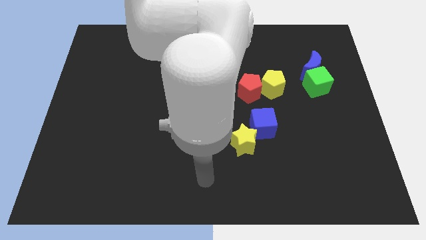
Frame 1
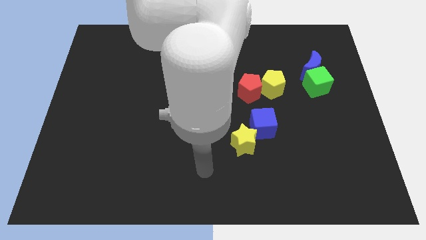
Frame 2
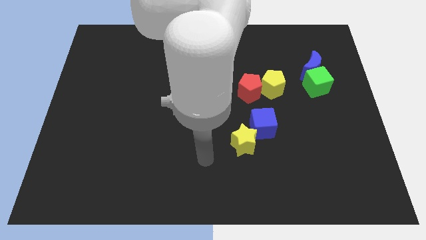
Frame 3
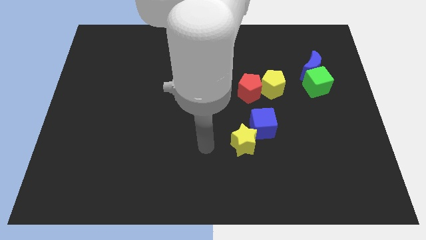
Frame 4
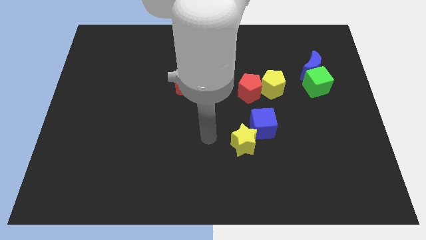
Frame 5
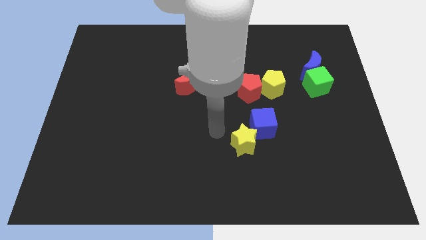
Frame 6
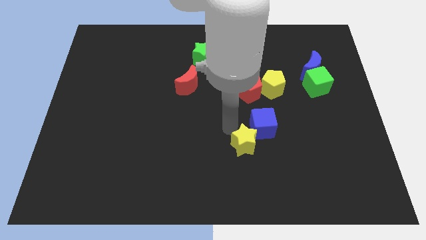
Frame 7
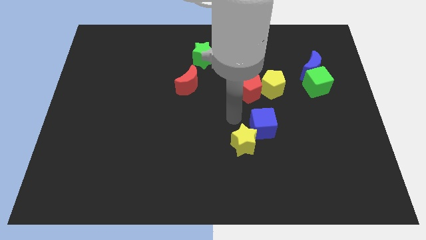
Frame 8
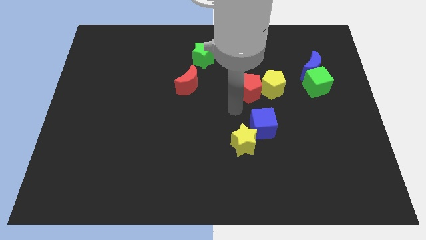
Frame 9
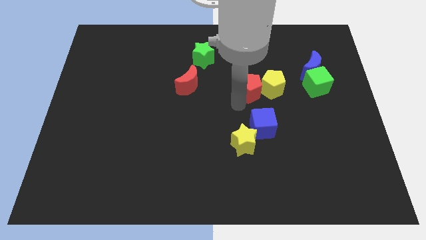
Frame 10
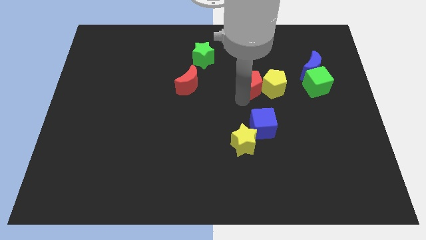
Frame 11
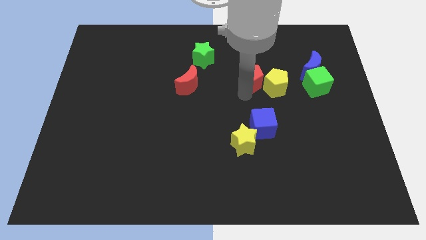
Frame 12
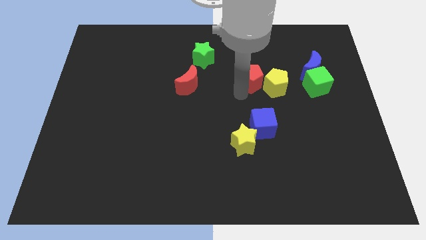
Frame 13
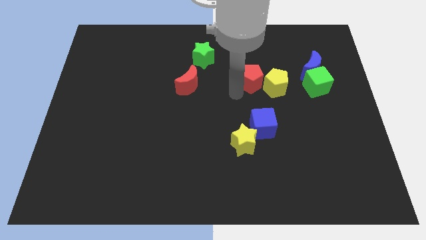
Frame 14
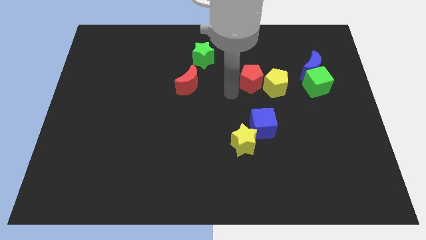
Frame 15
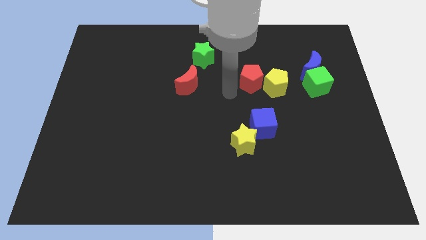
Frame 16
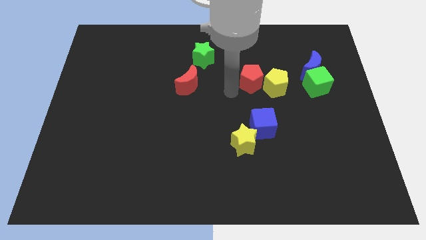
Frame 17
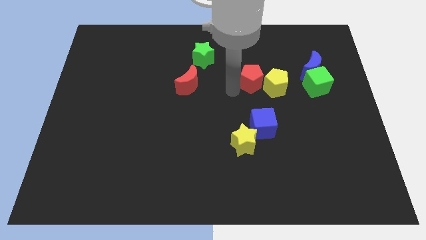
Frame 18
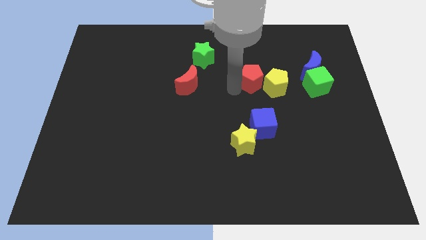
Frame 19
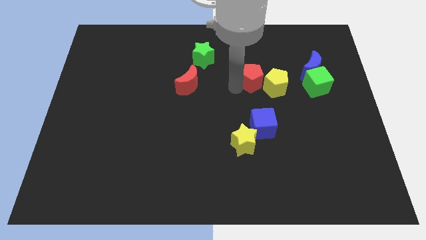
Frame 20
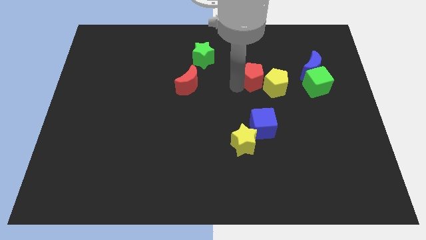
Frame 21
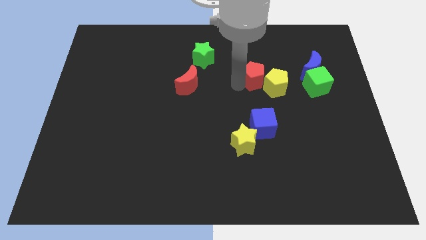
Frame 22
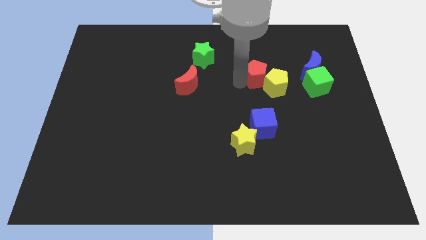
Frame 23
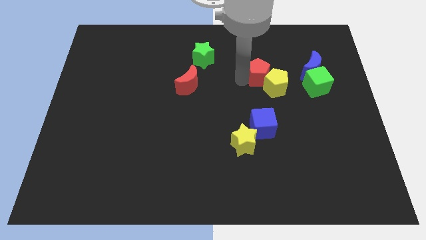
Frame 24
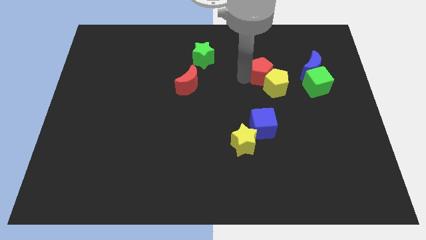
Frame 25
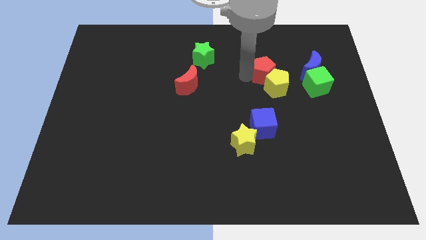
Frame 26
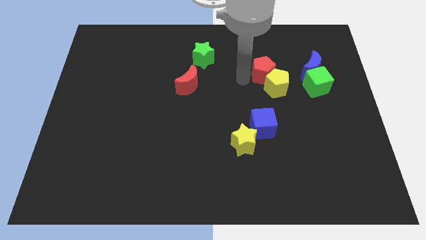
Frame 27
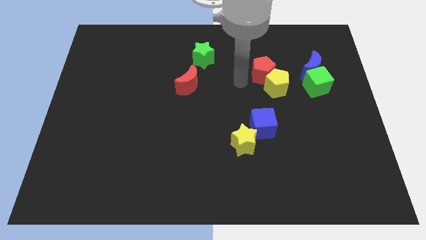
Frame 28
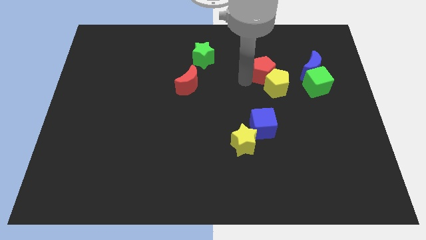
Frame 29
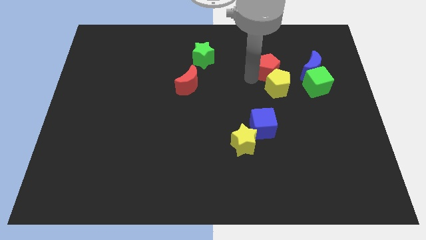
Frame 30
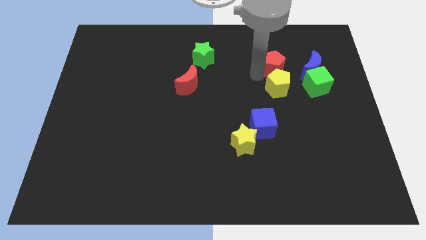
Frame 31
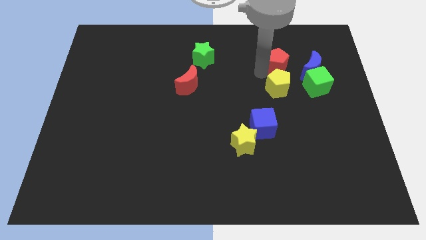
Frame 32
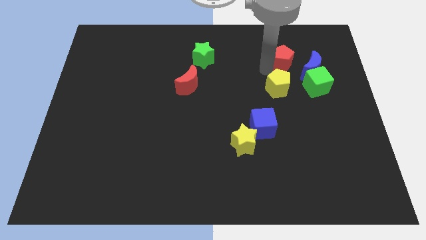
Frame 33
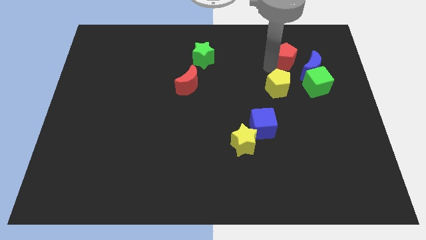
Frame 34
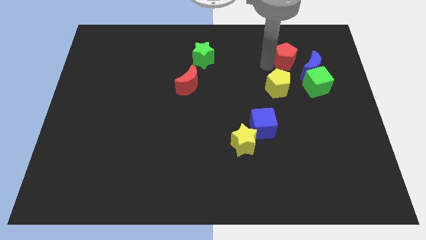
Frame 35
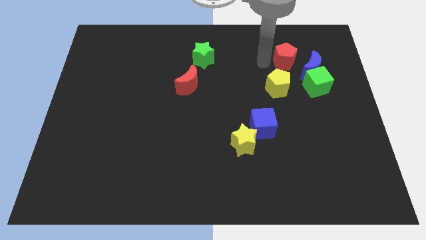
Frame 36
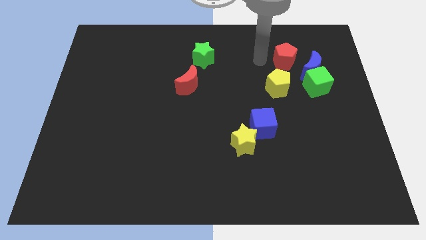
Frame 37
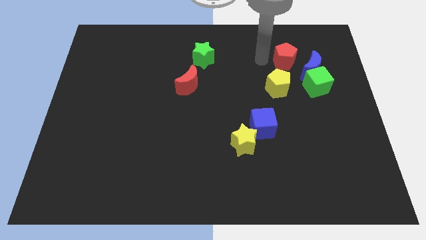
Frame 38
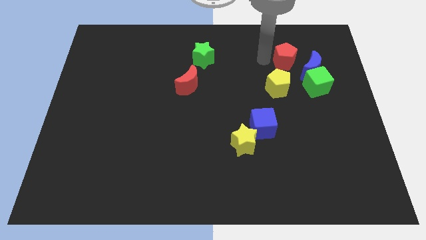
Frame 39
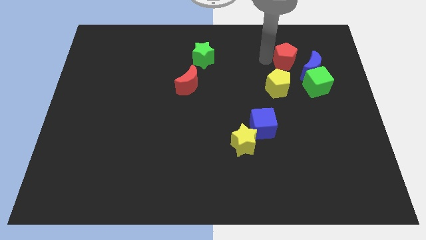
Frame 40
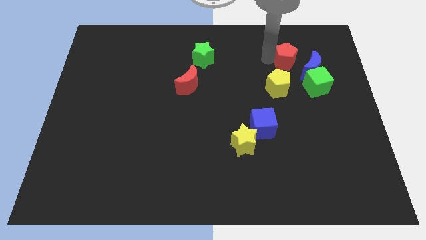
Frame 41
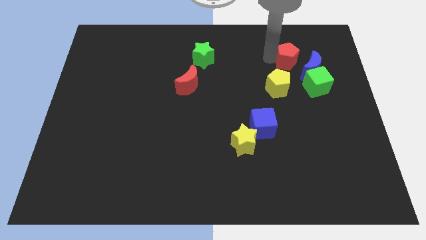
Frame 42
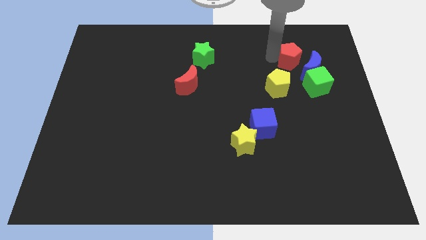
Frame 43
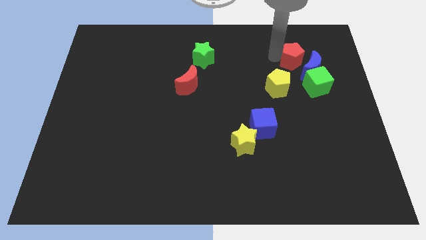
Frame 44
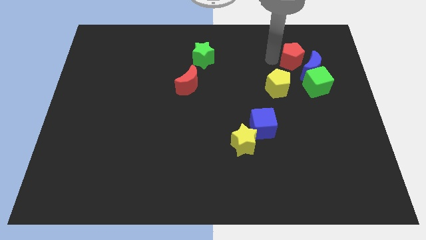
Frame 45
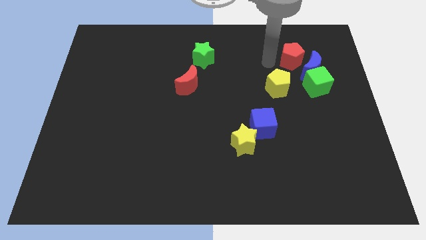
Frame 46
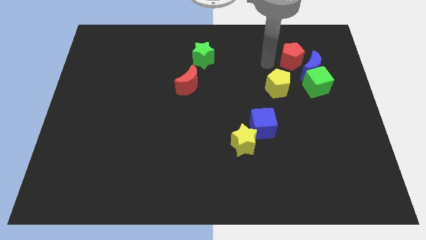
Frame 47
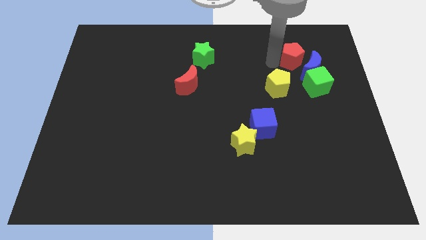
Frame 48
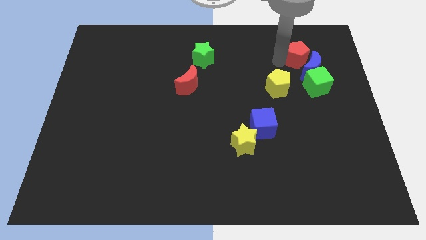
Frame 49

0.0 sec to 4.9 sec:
move the red pentagon to the top of the green cube

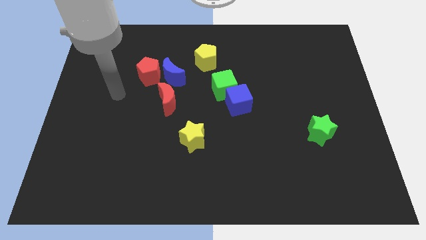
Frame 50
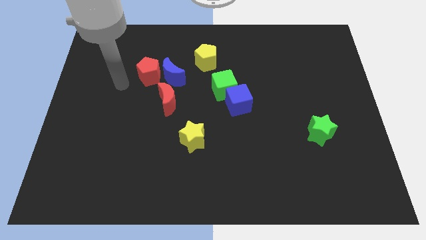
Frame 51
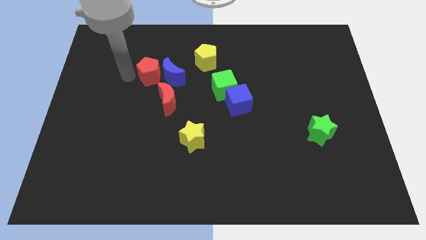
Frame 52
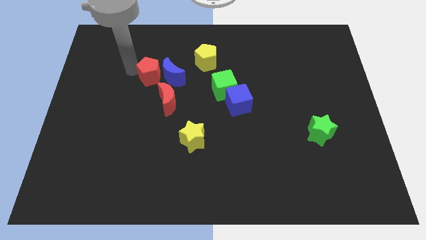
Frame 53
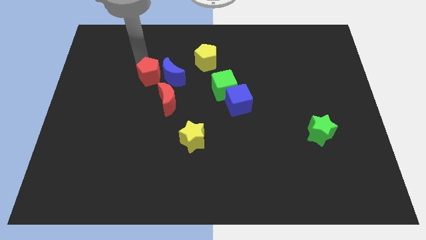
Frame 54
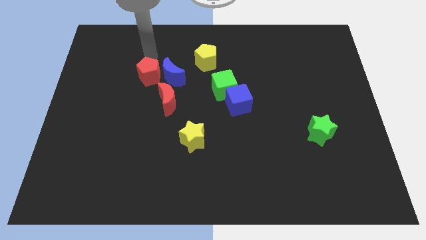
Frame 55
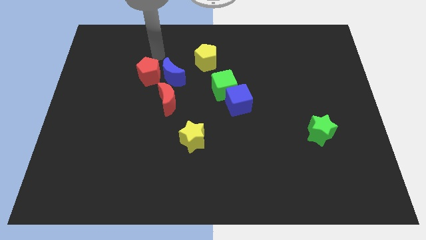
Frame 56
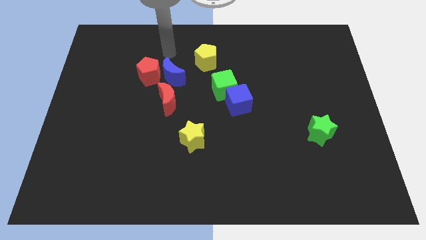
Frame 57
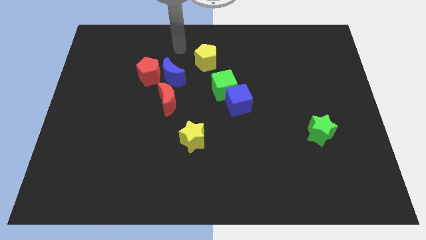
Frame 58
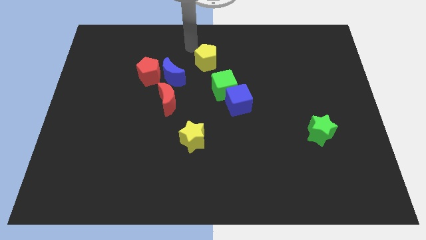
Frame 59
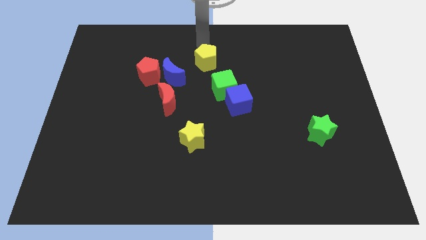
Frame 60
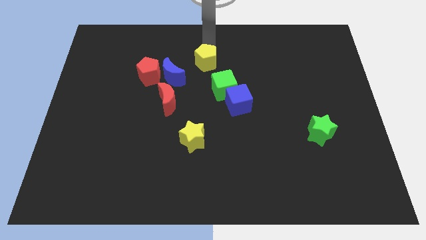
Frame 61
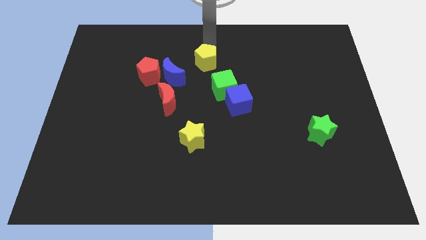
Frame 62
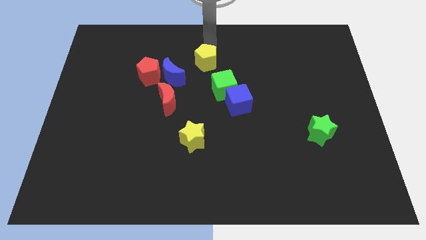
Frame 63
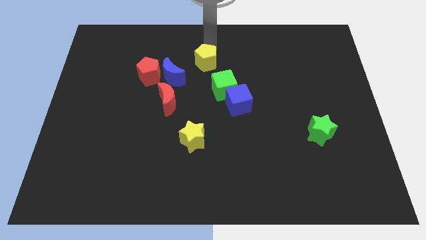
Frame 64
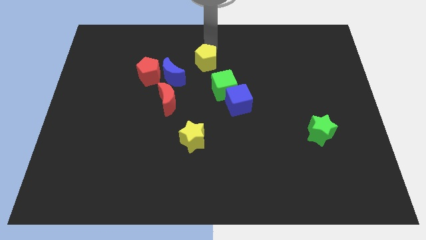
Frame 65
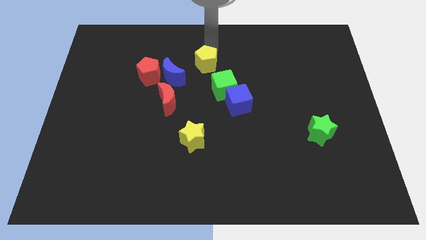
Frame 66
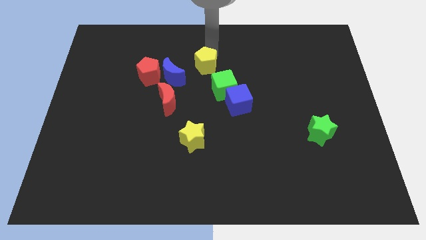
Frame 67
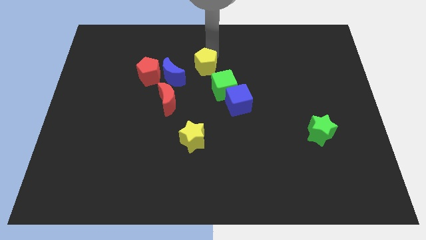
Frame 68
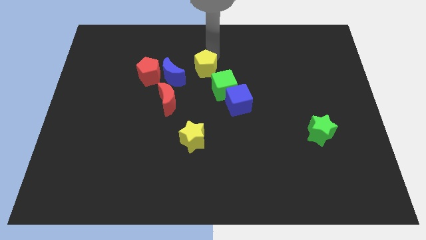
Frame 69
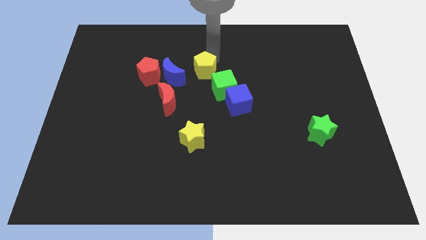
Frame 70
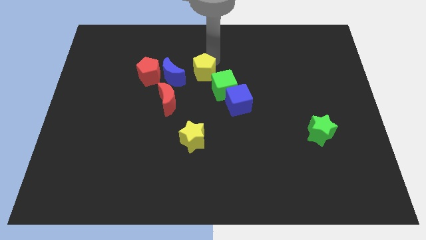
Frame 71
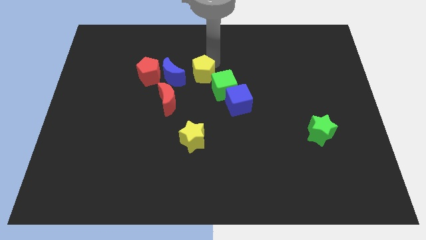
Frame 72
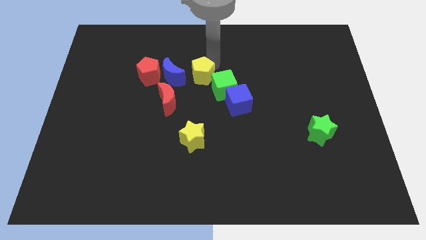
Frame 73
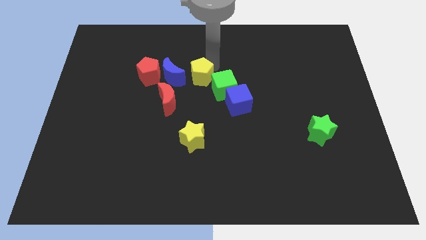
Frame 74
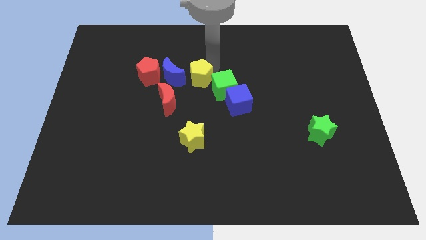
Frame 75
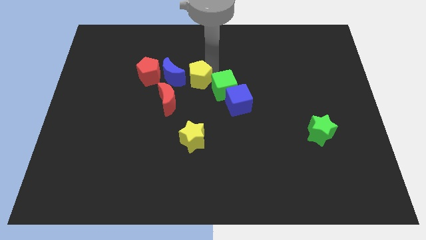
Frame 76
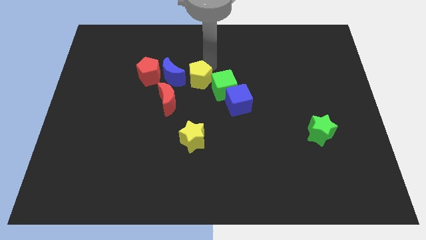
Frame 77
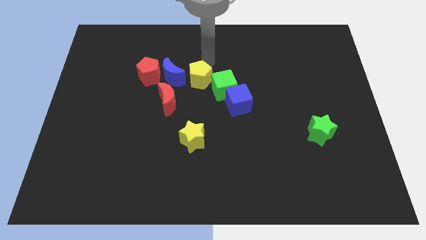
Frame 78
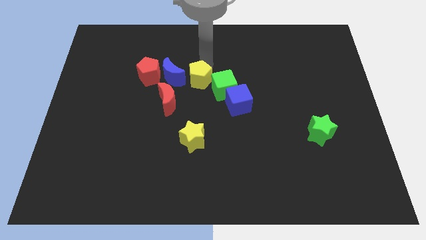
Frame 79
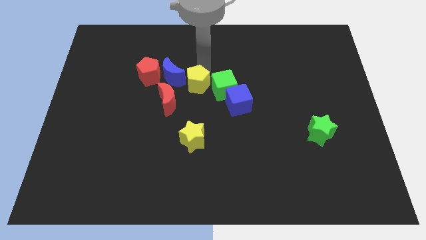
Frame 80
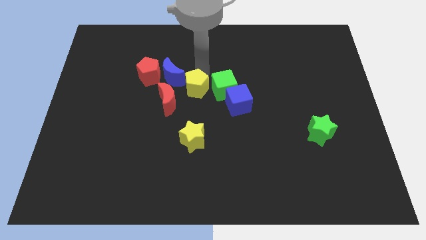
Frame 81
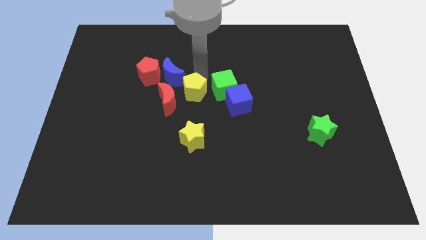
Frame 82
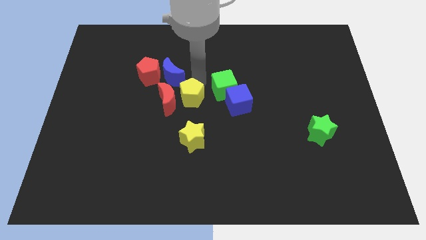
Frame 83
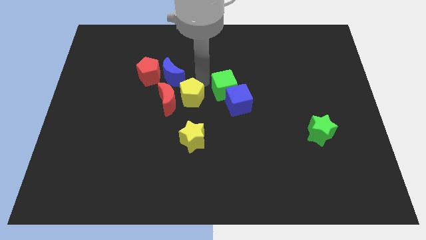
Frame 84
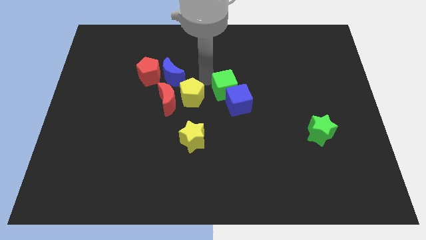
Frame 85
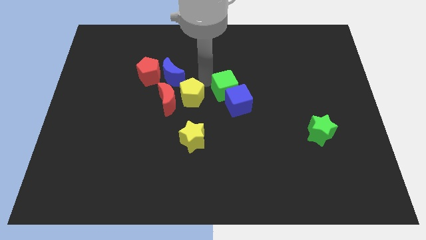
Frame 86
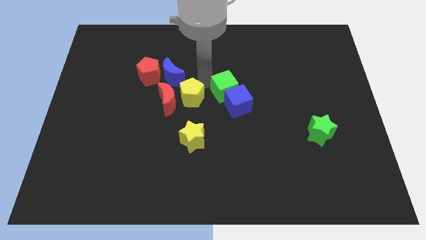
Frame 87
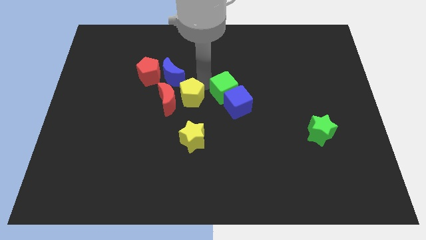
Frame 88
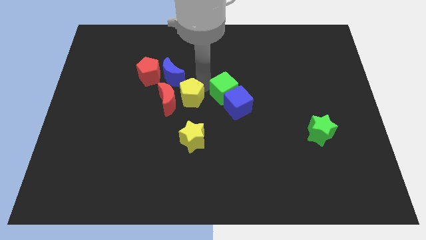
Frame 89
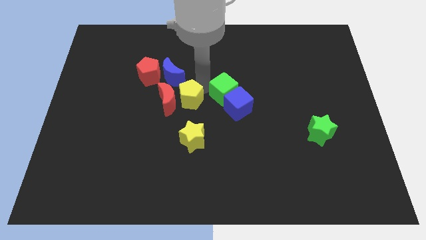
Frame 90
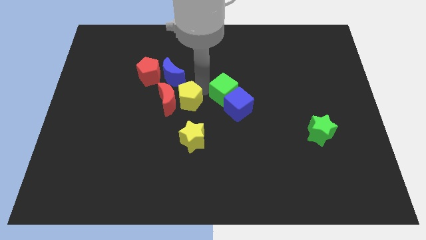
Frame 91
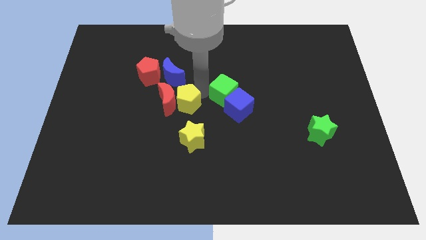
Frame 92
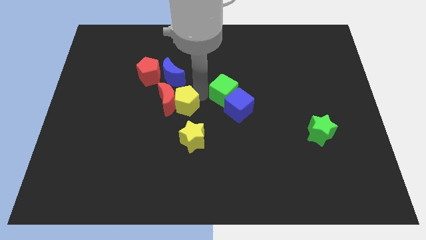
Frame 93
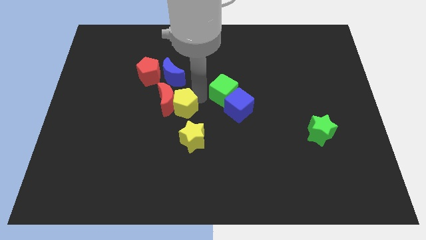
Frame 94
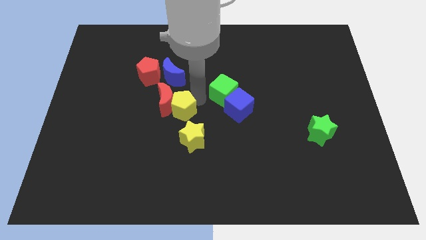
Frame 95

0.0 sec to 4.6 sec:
put the yellow pentagon to the bottom of the red moon
